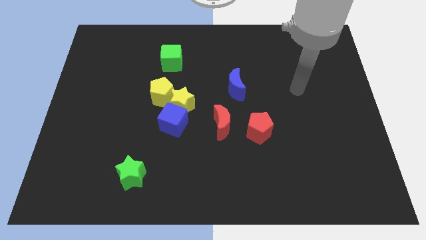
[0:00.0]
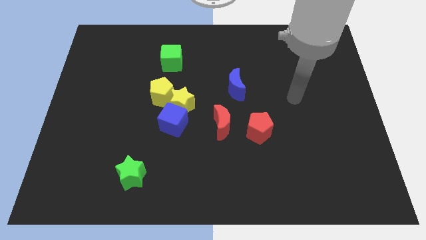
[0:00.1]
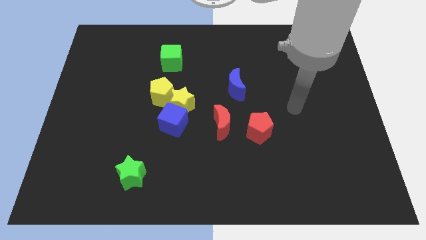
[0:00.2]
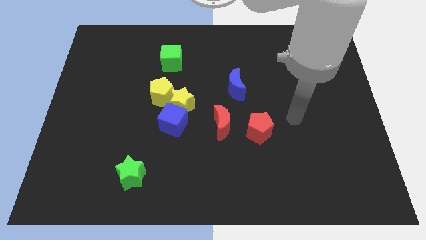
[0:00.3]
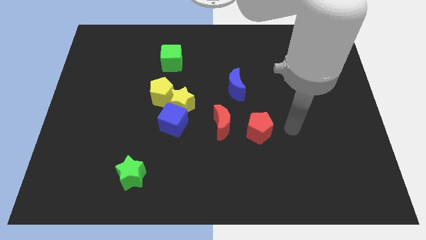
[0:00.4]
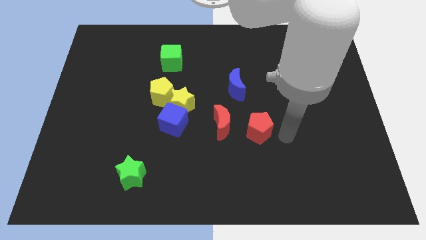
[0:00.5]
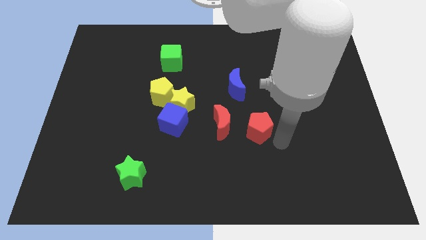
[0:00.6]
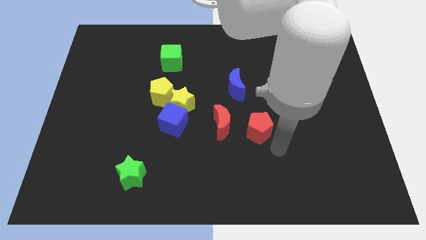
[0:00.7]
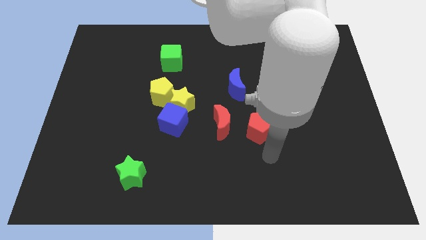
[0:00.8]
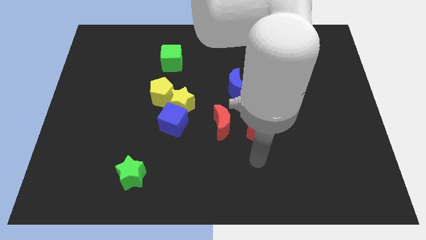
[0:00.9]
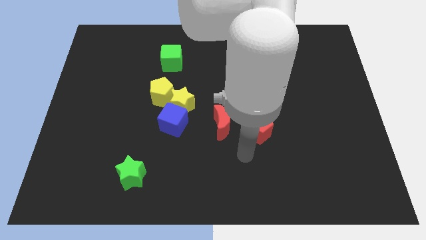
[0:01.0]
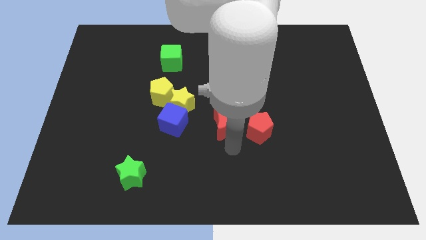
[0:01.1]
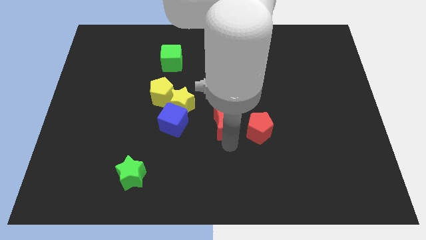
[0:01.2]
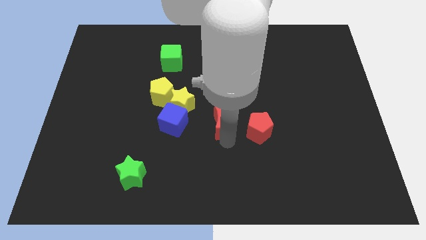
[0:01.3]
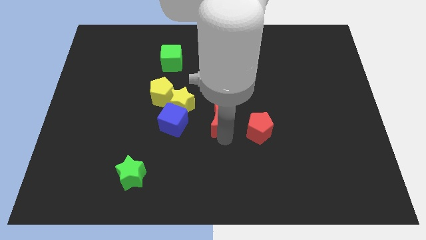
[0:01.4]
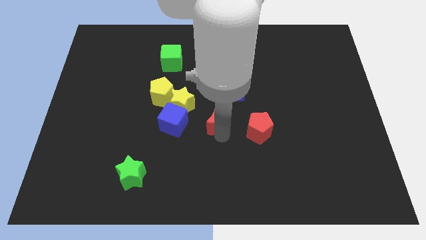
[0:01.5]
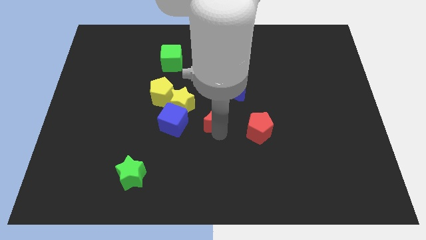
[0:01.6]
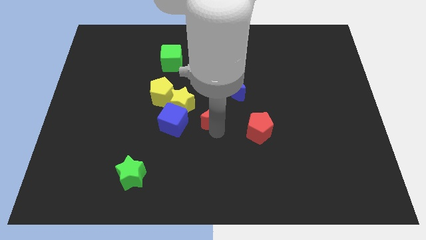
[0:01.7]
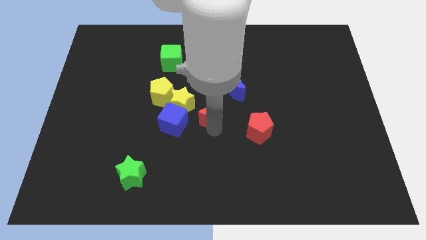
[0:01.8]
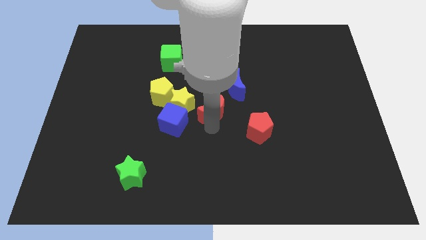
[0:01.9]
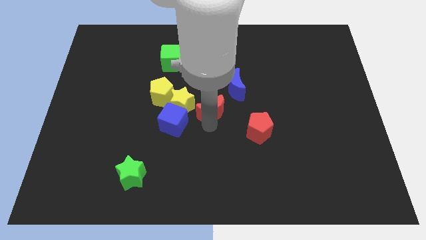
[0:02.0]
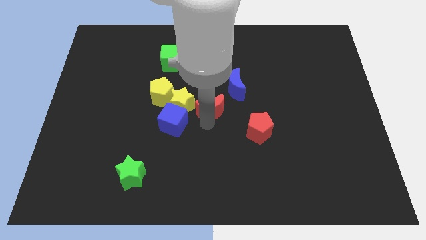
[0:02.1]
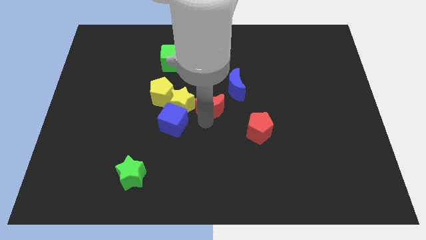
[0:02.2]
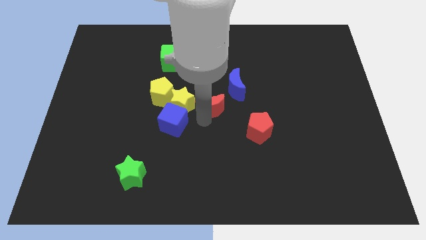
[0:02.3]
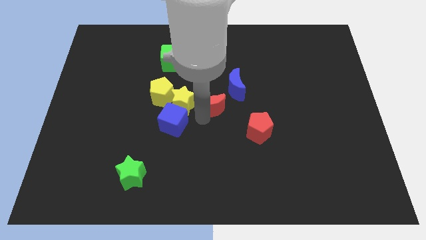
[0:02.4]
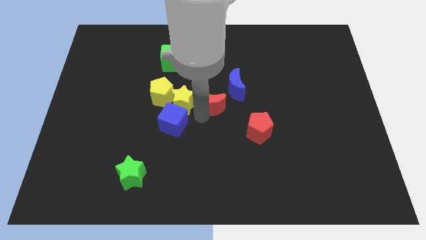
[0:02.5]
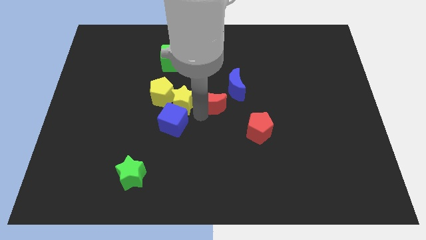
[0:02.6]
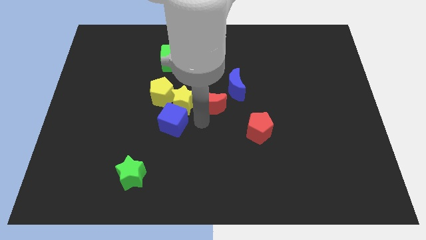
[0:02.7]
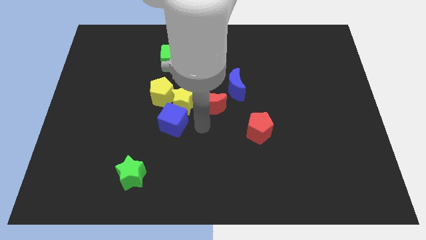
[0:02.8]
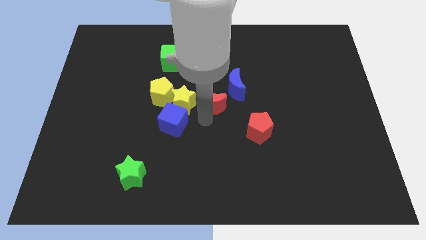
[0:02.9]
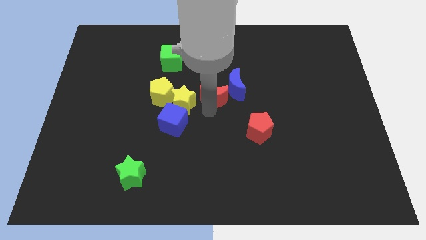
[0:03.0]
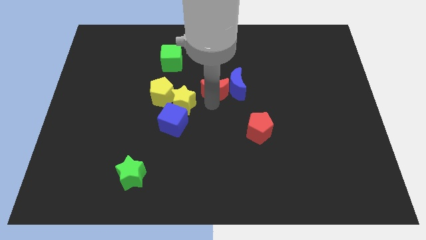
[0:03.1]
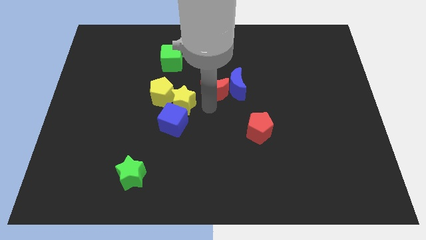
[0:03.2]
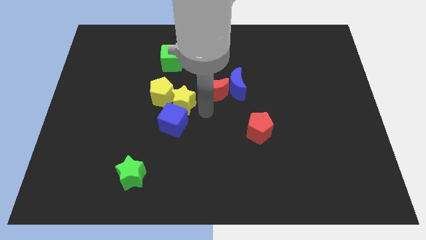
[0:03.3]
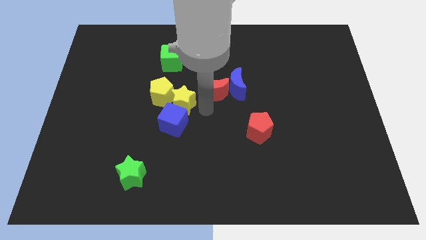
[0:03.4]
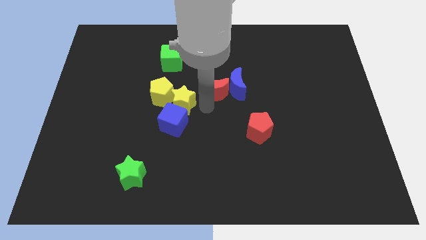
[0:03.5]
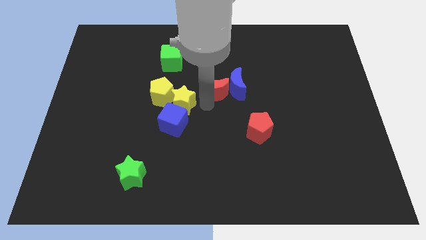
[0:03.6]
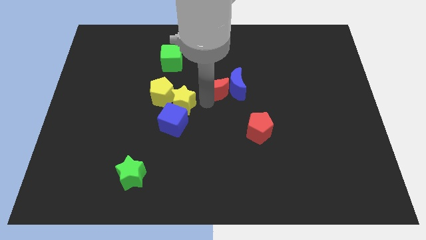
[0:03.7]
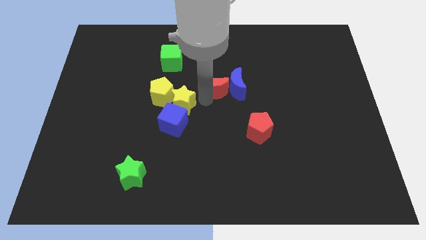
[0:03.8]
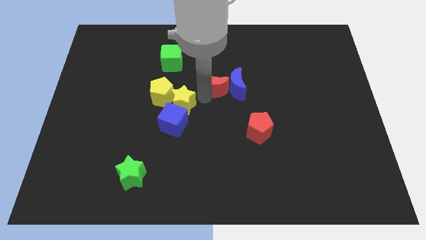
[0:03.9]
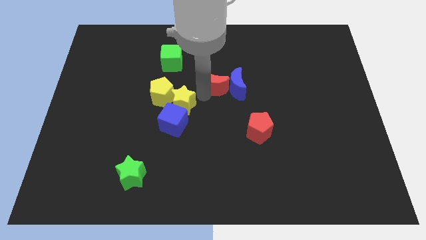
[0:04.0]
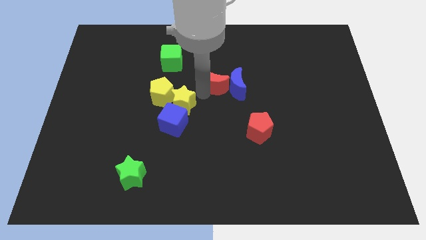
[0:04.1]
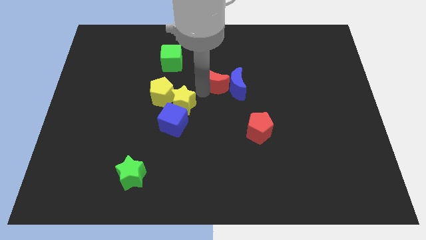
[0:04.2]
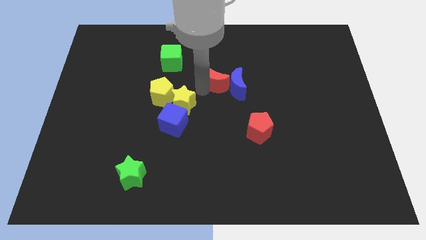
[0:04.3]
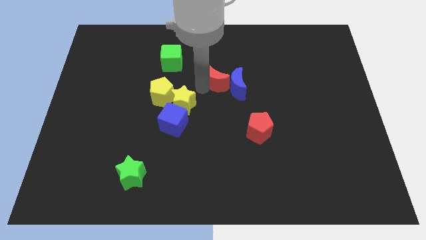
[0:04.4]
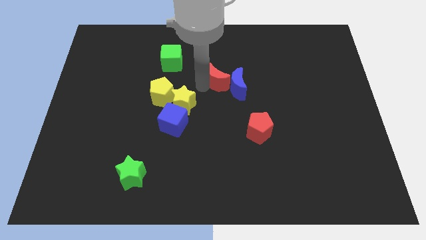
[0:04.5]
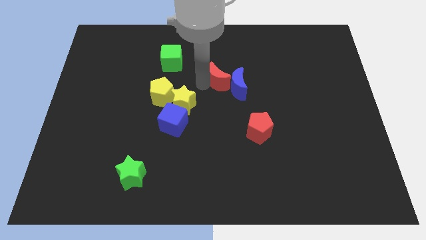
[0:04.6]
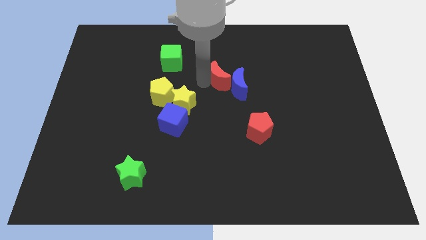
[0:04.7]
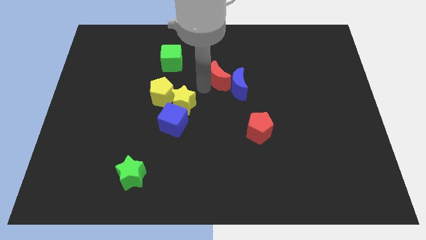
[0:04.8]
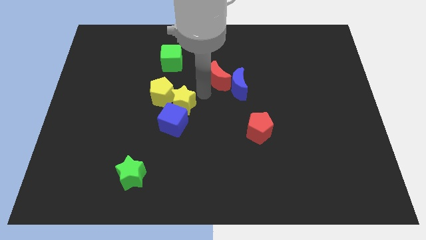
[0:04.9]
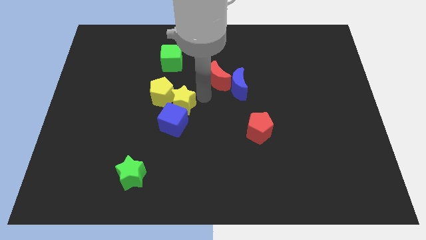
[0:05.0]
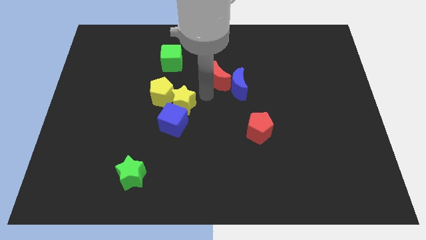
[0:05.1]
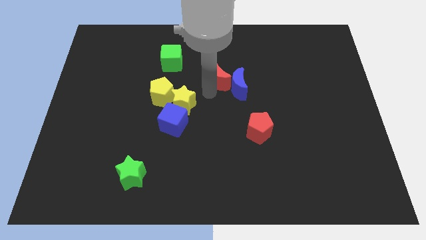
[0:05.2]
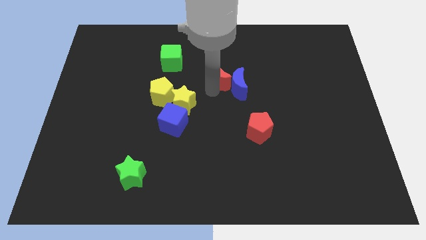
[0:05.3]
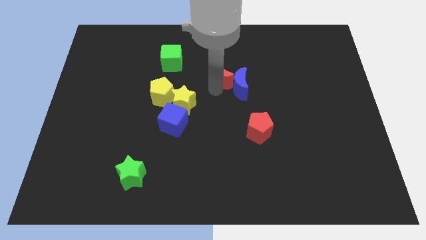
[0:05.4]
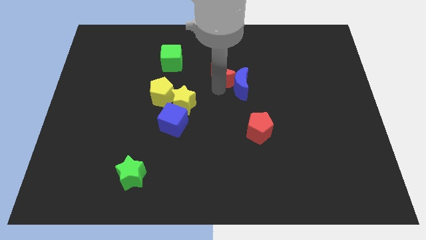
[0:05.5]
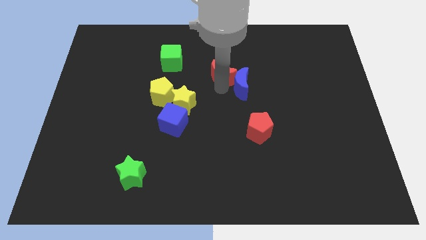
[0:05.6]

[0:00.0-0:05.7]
move the red moon to the top of the blue moon

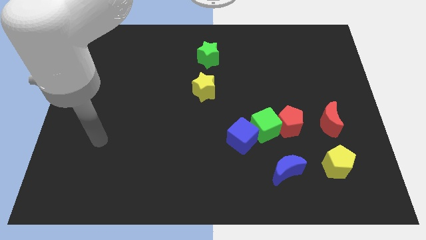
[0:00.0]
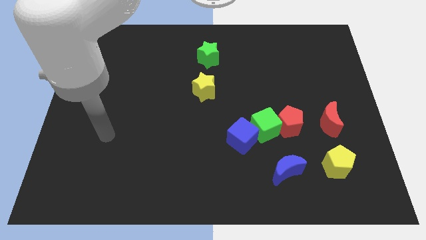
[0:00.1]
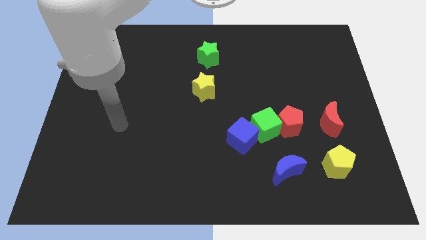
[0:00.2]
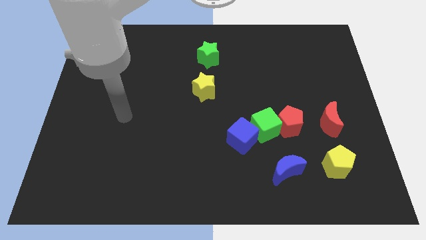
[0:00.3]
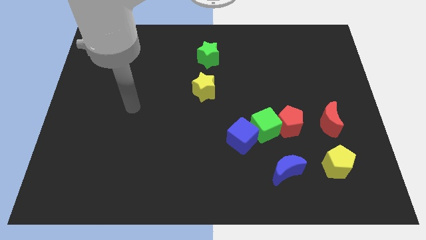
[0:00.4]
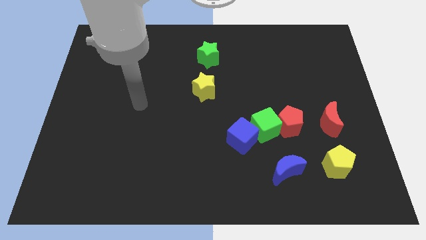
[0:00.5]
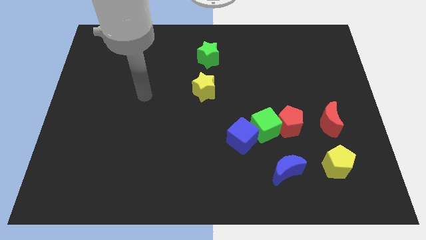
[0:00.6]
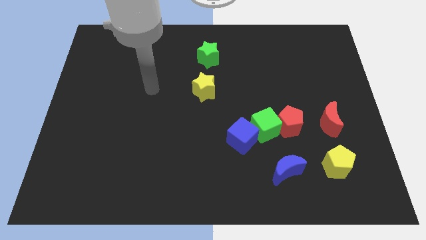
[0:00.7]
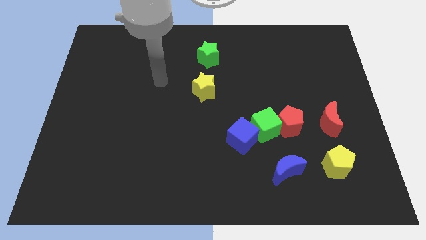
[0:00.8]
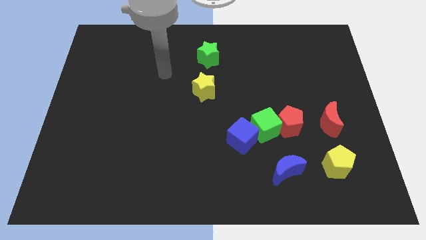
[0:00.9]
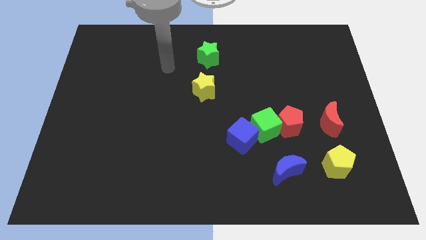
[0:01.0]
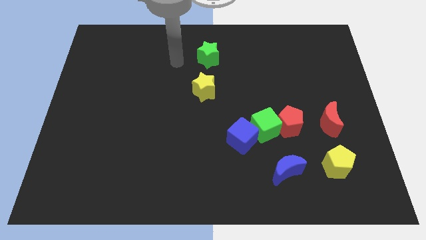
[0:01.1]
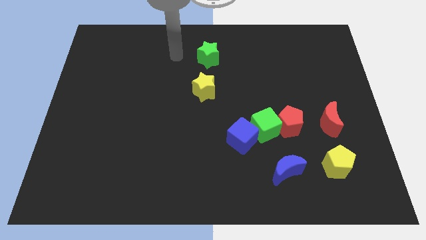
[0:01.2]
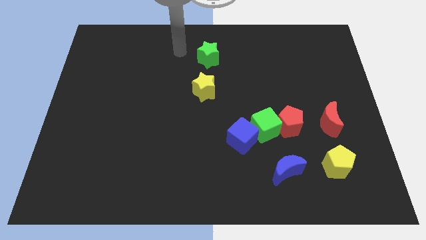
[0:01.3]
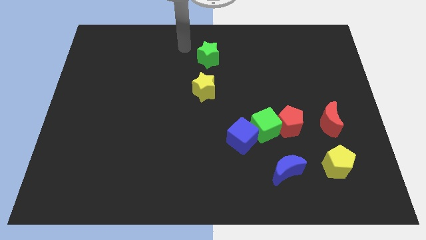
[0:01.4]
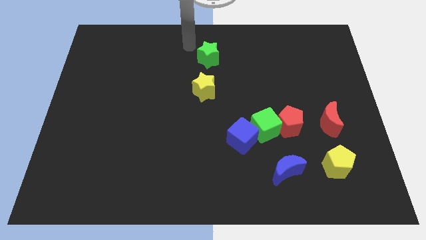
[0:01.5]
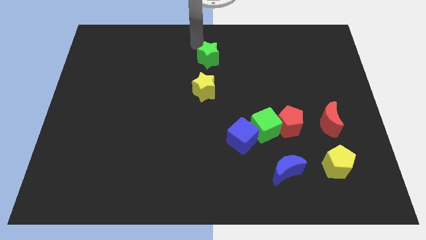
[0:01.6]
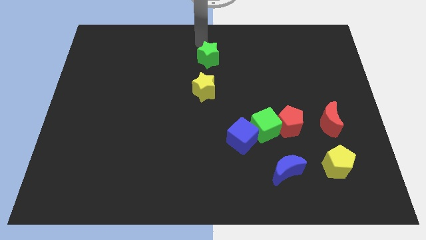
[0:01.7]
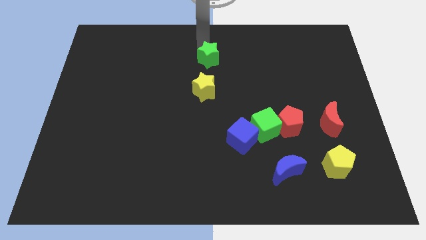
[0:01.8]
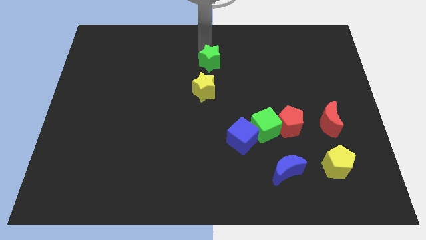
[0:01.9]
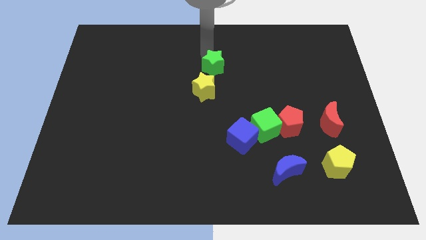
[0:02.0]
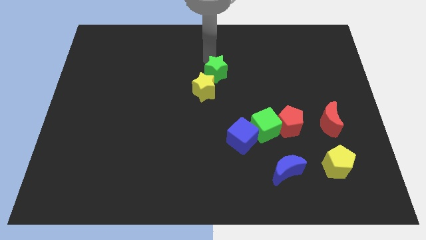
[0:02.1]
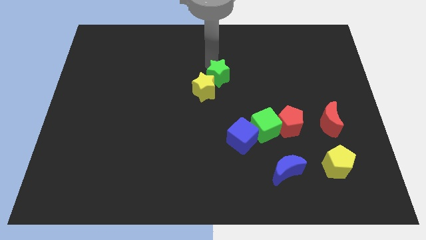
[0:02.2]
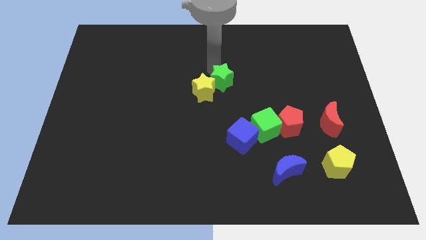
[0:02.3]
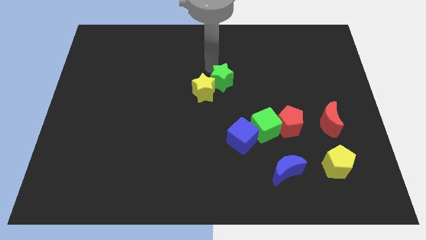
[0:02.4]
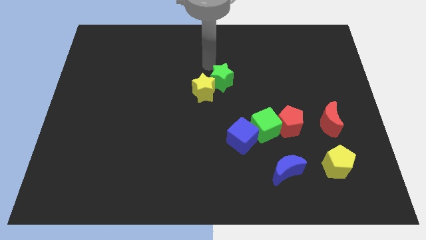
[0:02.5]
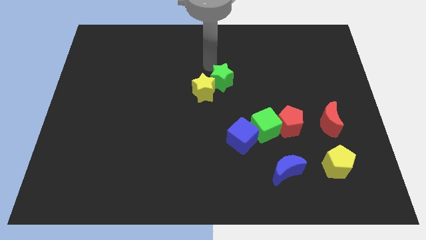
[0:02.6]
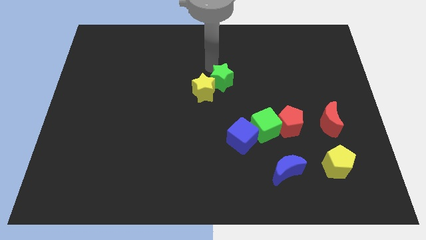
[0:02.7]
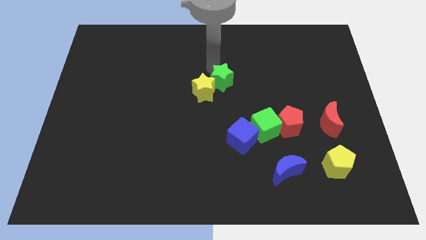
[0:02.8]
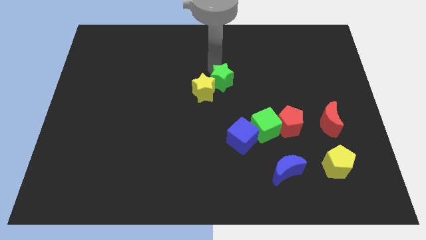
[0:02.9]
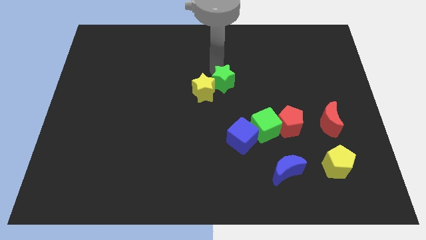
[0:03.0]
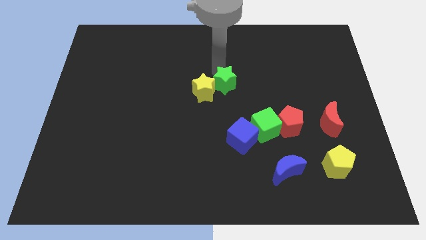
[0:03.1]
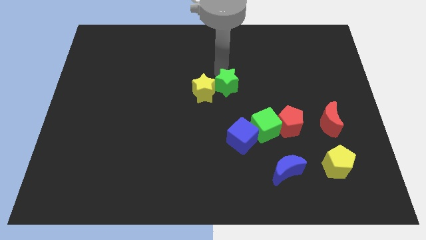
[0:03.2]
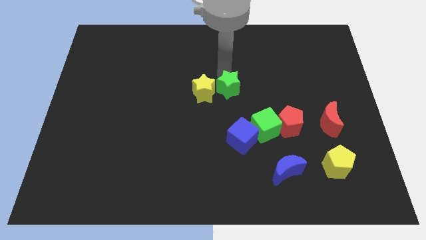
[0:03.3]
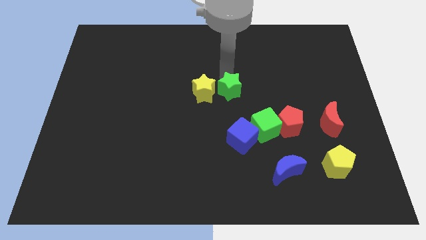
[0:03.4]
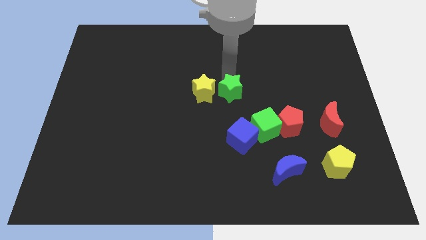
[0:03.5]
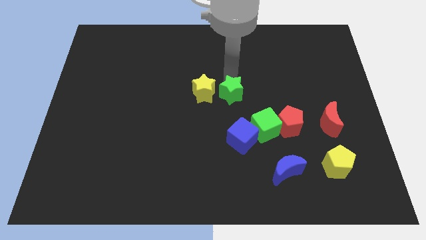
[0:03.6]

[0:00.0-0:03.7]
slide the green star to the top left side of the green cube
